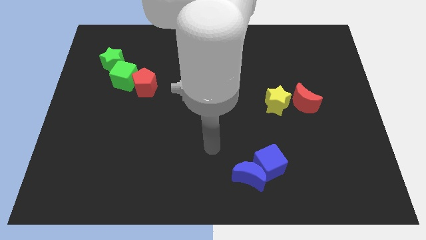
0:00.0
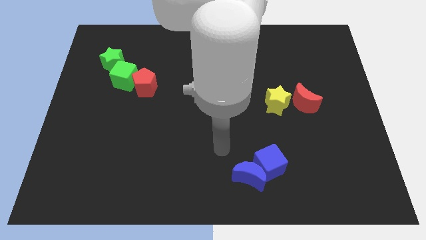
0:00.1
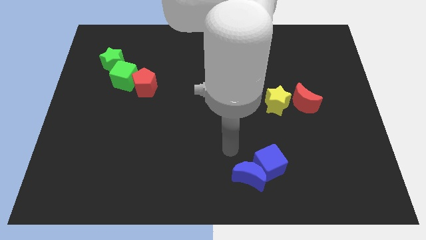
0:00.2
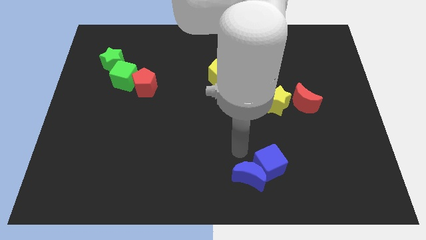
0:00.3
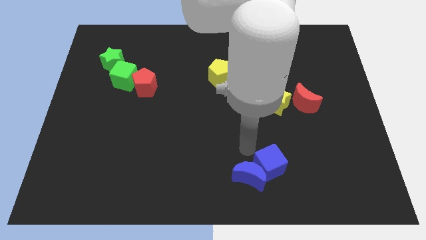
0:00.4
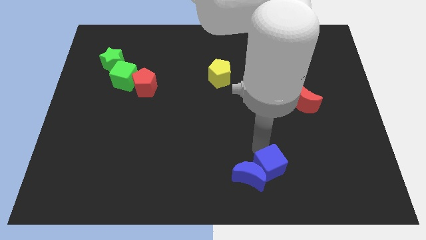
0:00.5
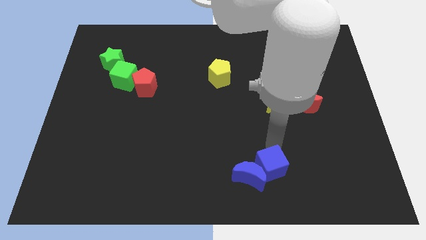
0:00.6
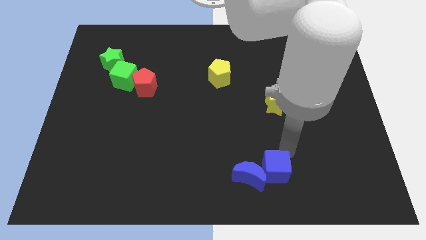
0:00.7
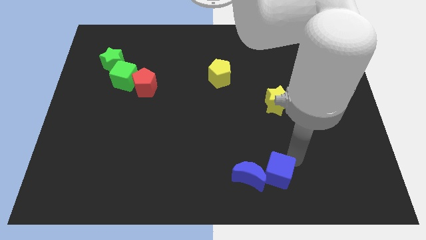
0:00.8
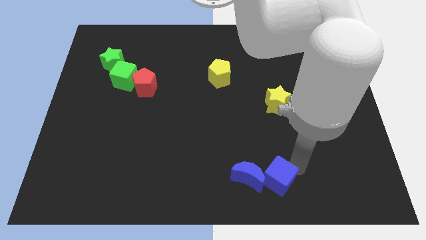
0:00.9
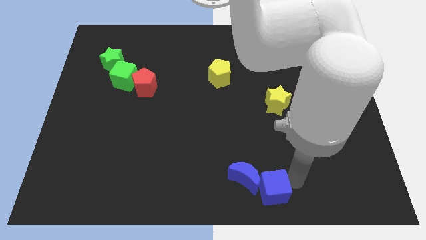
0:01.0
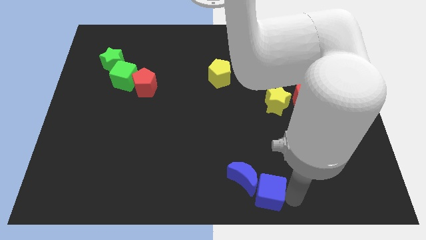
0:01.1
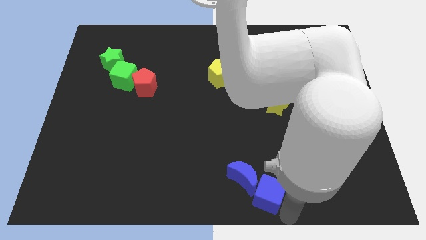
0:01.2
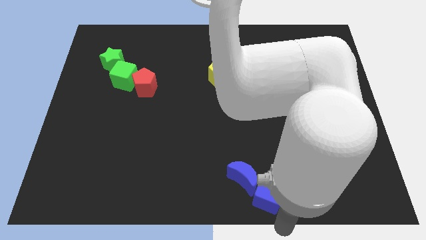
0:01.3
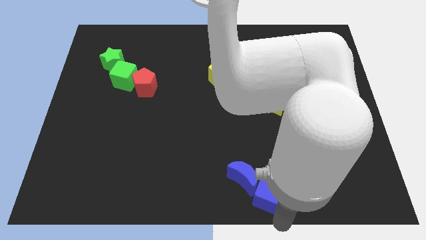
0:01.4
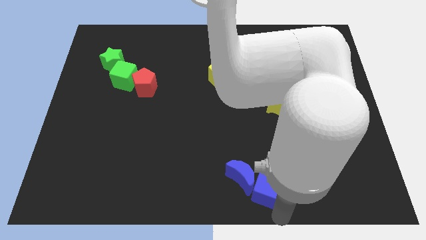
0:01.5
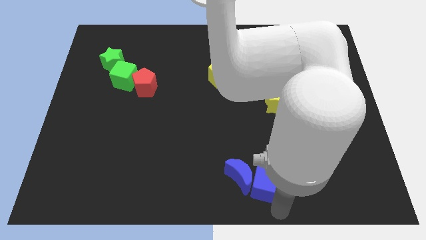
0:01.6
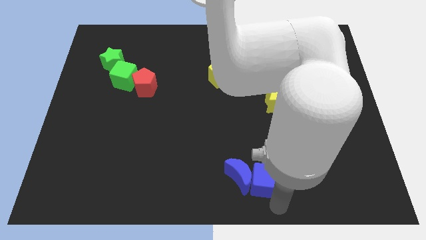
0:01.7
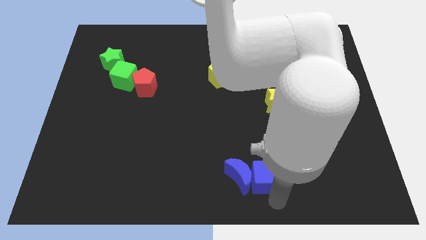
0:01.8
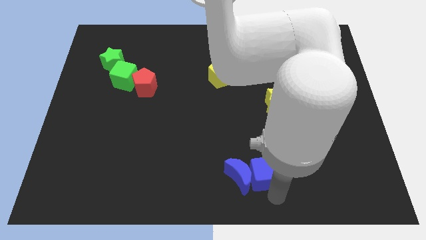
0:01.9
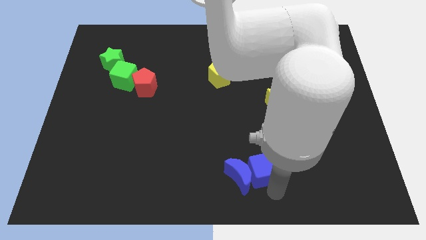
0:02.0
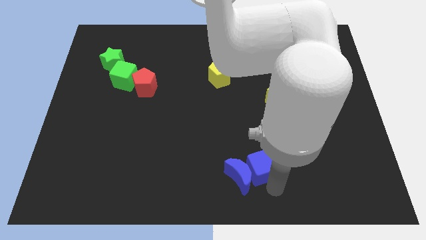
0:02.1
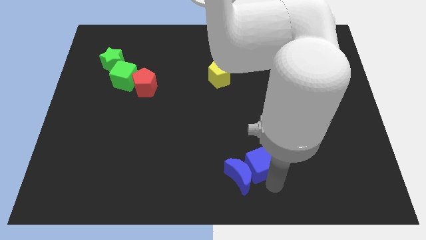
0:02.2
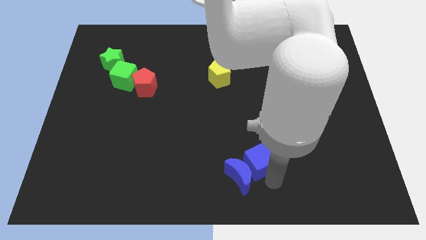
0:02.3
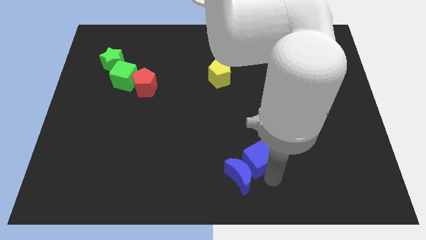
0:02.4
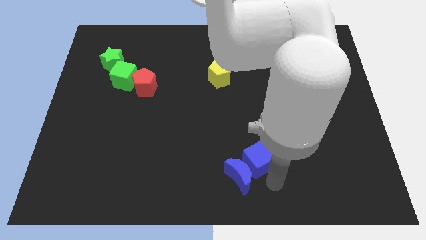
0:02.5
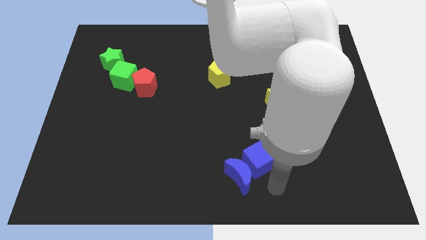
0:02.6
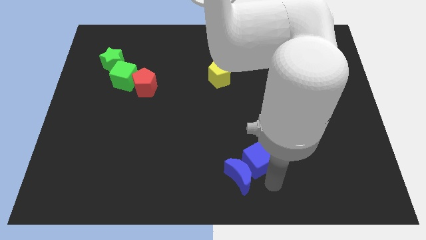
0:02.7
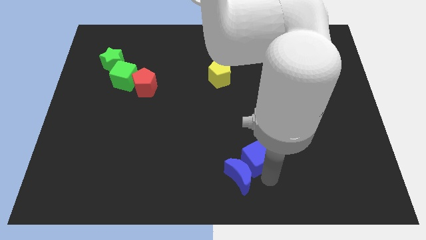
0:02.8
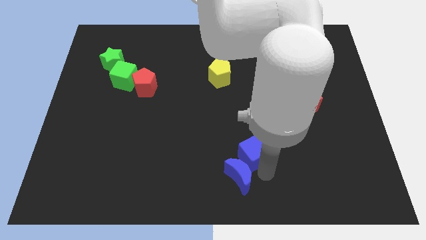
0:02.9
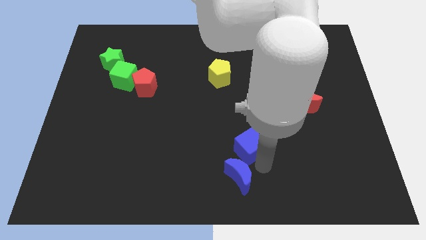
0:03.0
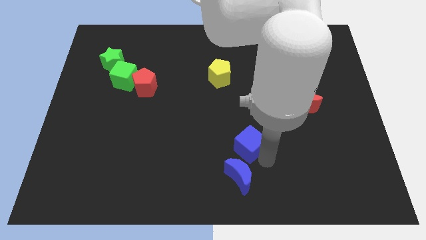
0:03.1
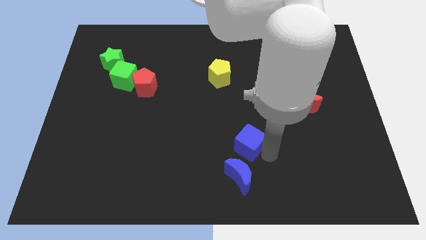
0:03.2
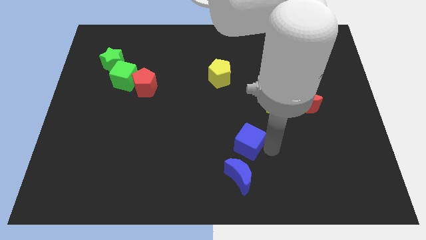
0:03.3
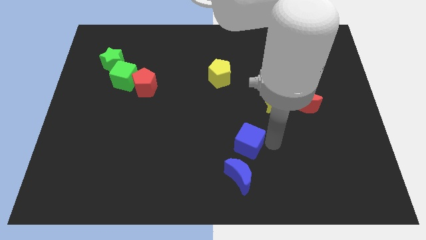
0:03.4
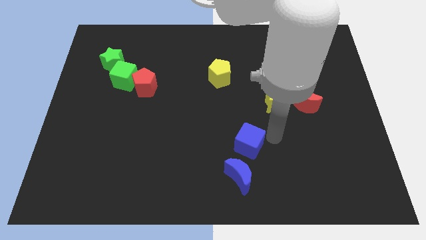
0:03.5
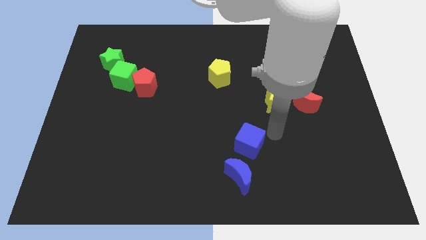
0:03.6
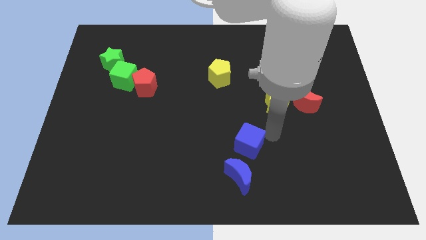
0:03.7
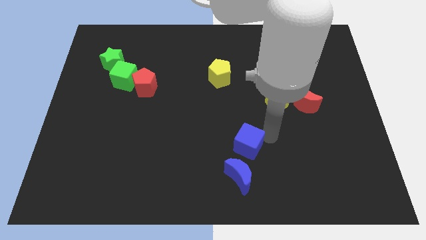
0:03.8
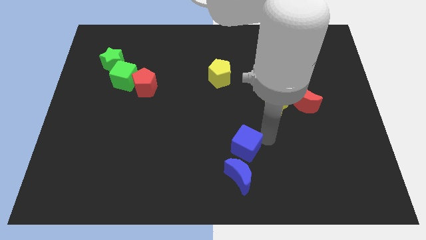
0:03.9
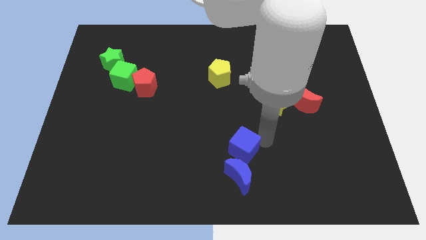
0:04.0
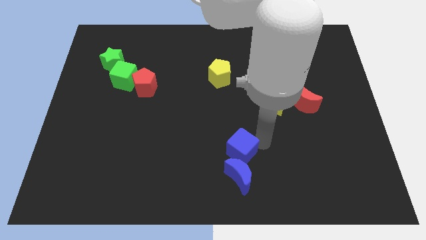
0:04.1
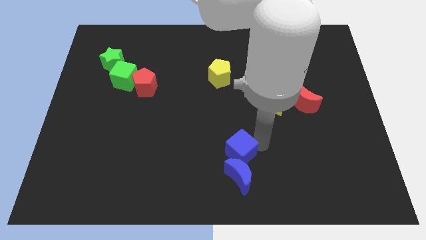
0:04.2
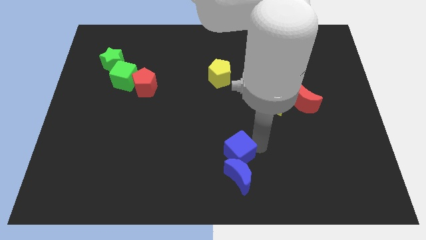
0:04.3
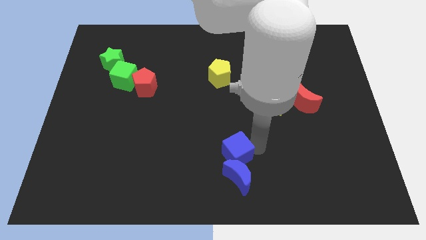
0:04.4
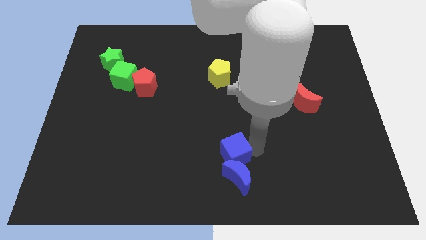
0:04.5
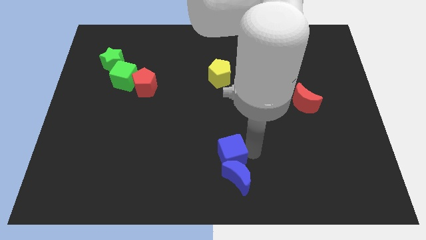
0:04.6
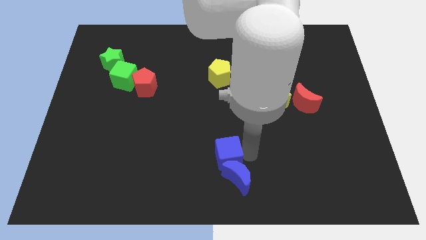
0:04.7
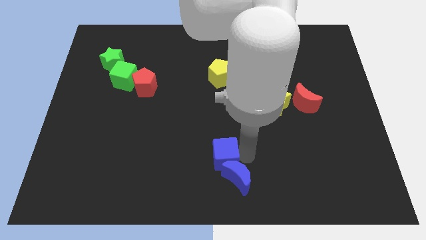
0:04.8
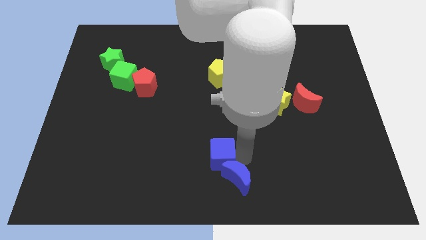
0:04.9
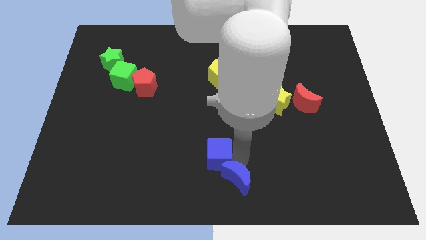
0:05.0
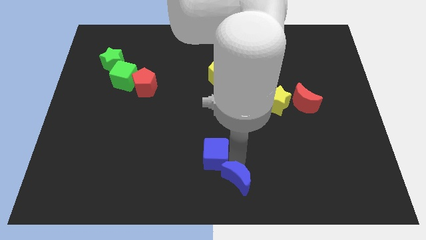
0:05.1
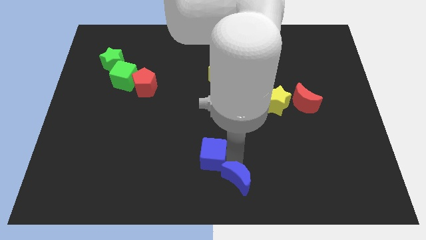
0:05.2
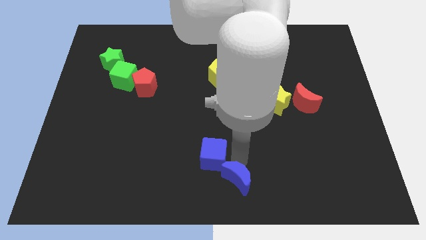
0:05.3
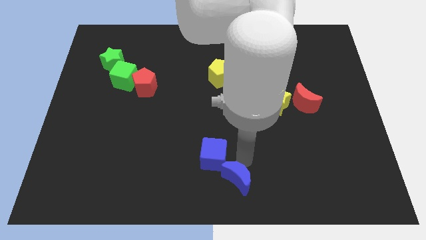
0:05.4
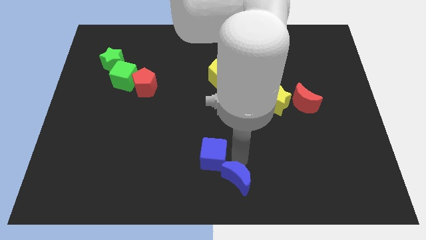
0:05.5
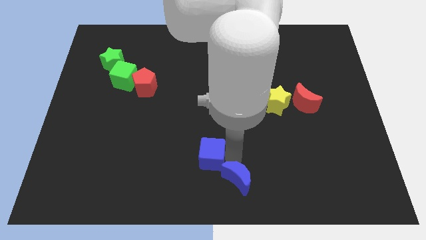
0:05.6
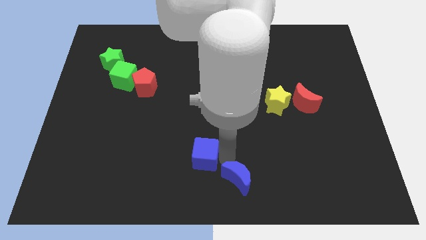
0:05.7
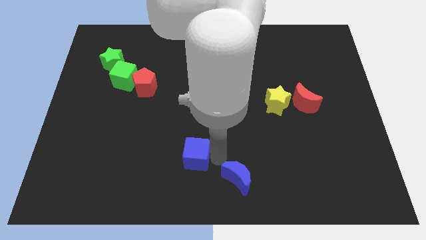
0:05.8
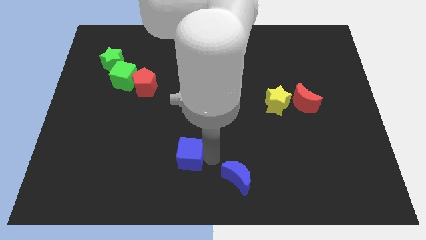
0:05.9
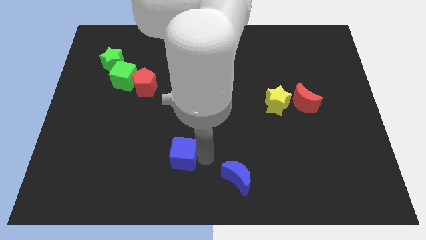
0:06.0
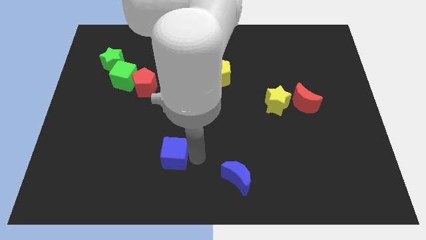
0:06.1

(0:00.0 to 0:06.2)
move the blue cube to the left

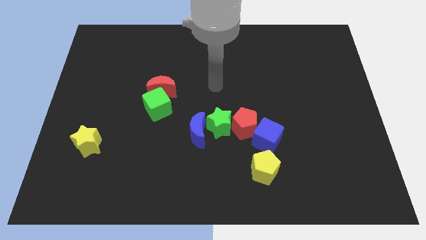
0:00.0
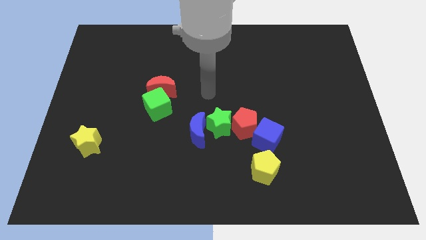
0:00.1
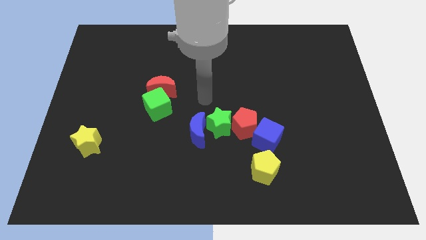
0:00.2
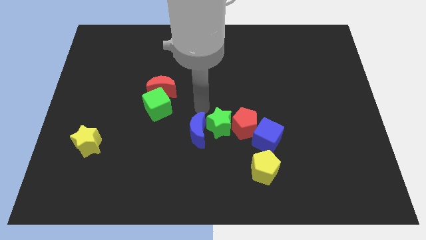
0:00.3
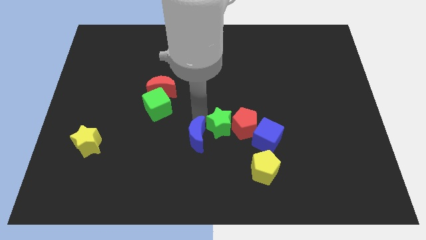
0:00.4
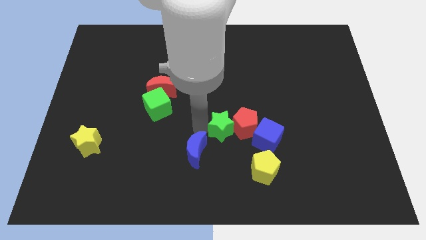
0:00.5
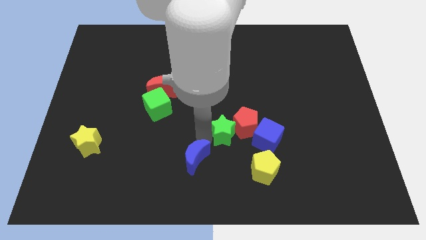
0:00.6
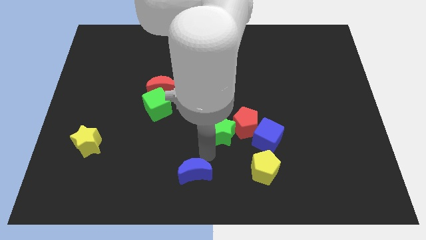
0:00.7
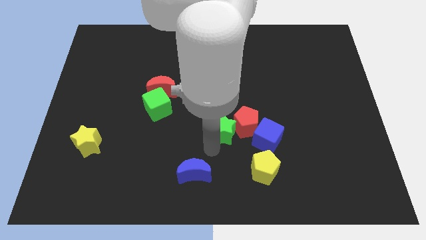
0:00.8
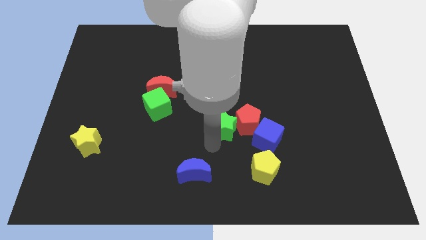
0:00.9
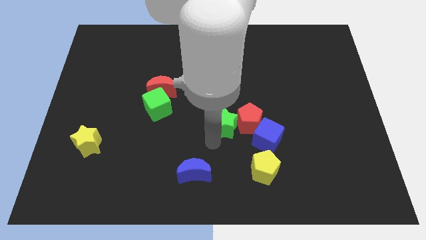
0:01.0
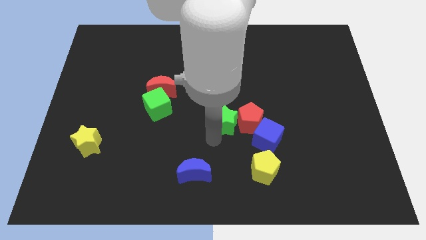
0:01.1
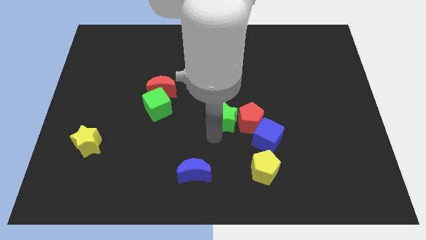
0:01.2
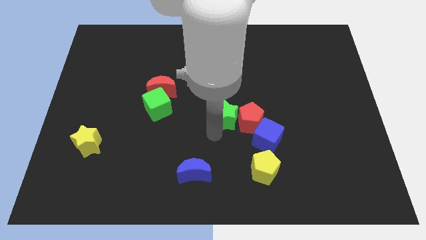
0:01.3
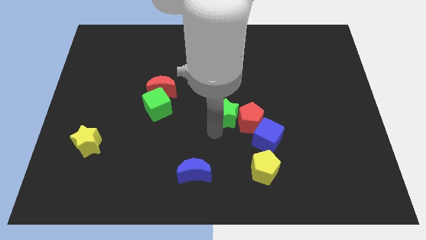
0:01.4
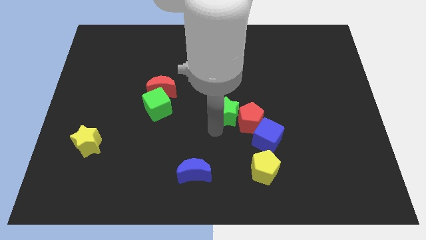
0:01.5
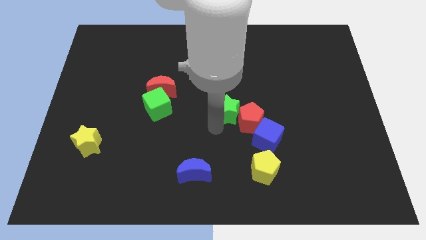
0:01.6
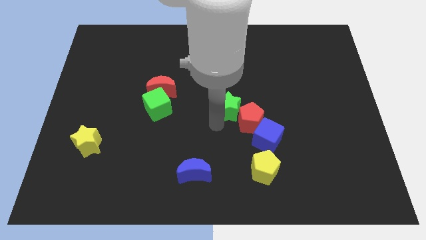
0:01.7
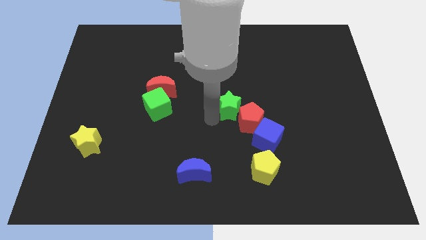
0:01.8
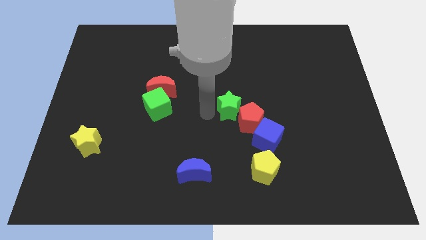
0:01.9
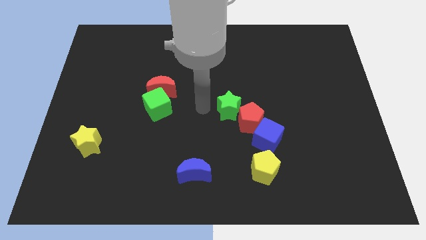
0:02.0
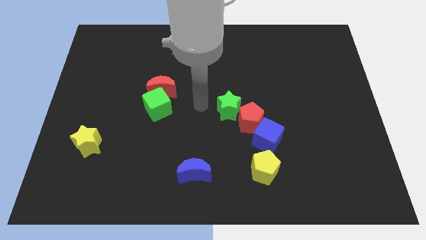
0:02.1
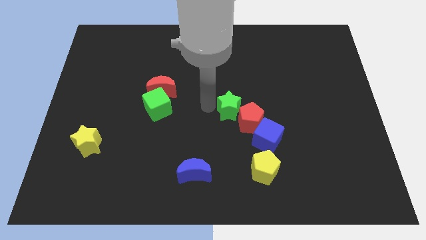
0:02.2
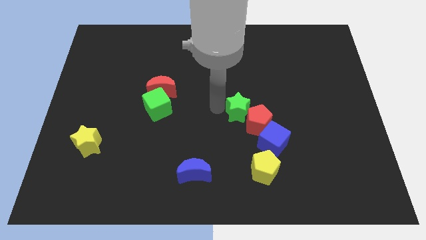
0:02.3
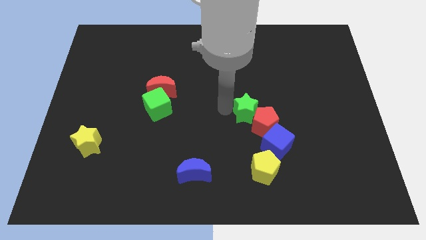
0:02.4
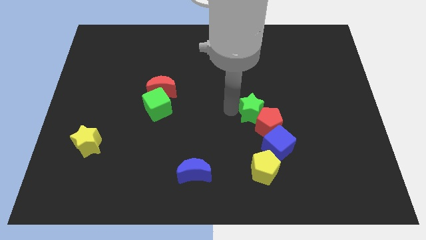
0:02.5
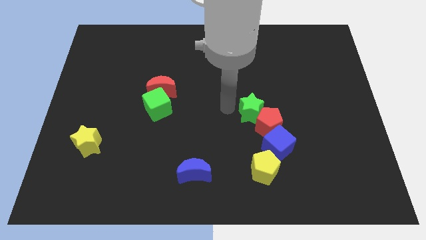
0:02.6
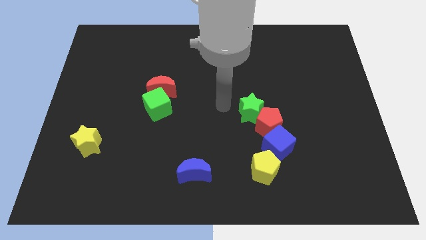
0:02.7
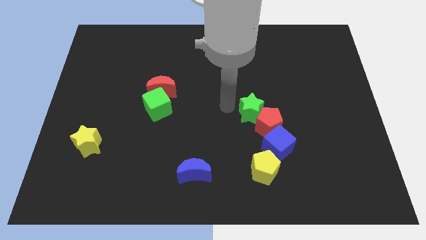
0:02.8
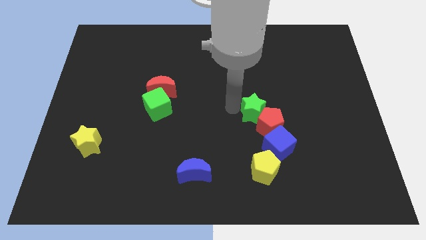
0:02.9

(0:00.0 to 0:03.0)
slide the green star slightly to the right
